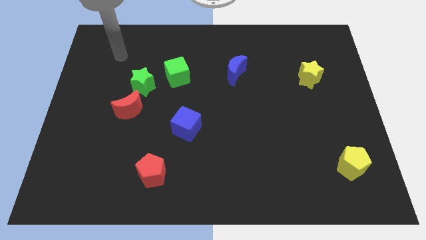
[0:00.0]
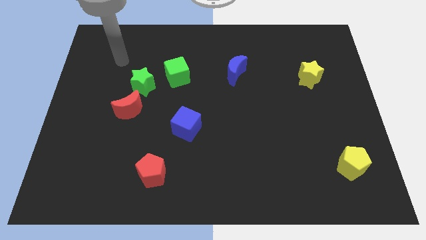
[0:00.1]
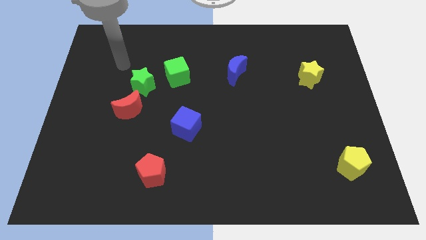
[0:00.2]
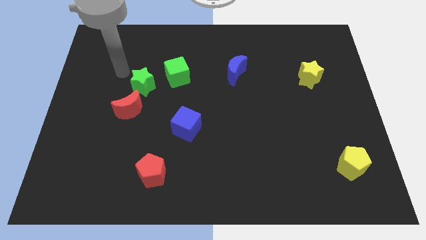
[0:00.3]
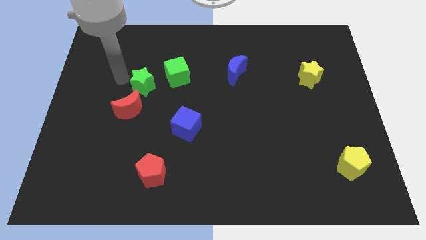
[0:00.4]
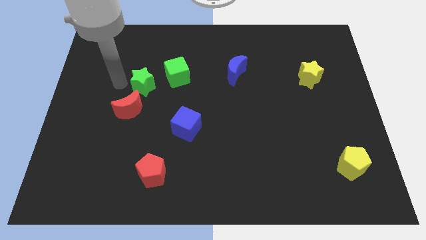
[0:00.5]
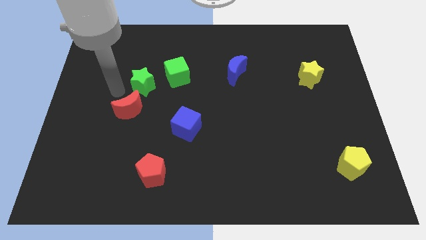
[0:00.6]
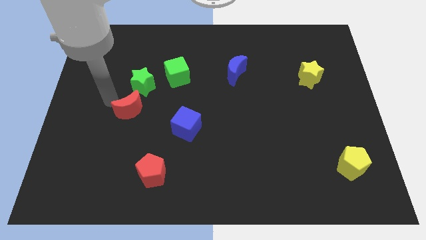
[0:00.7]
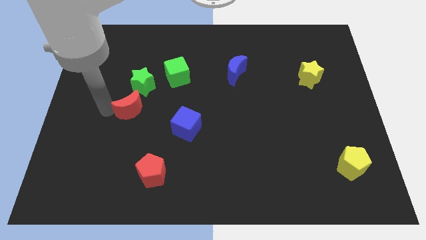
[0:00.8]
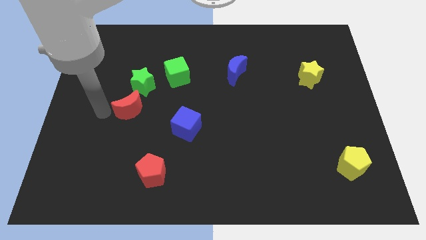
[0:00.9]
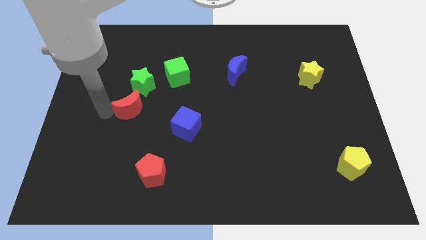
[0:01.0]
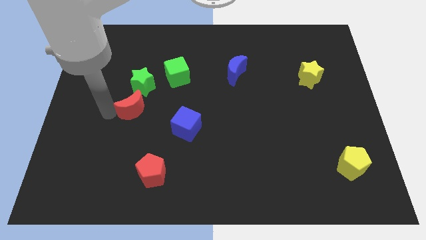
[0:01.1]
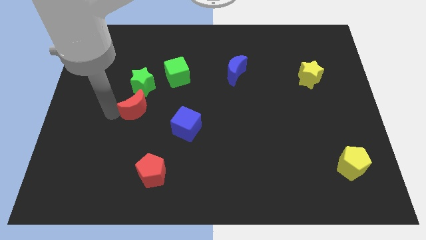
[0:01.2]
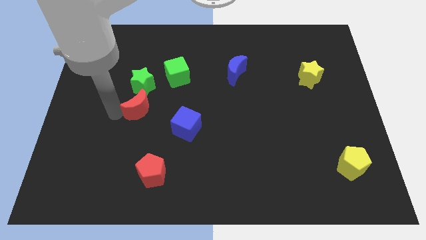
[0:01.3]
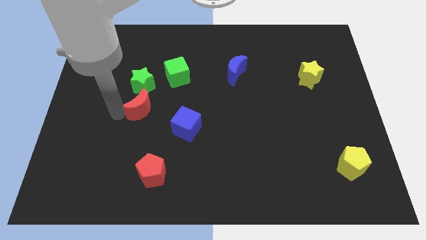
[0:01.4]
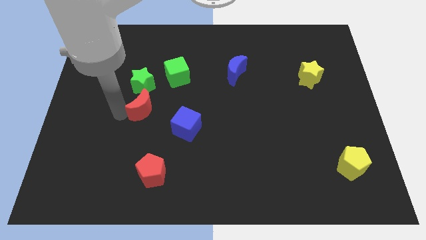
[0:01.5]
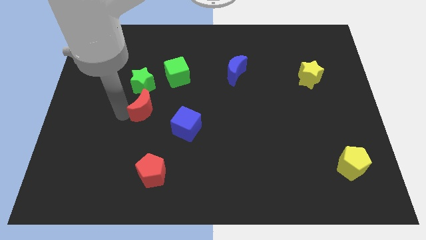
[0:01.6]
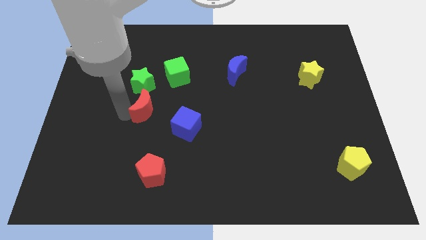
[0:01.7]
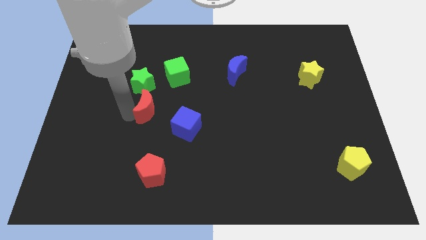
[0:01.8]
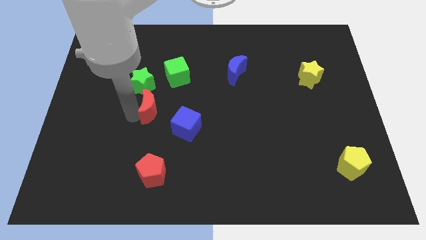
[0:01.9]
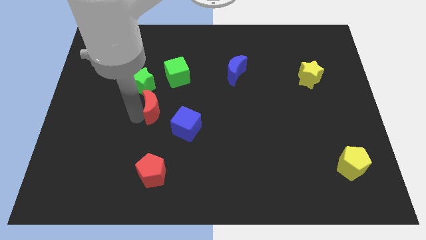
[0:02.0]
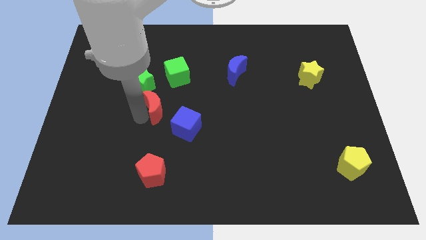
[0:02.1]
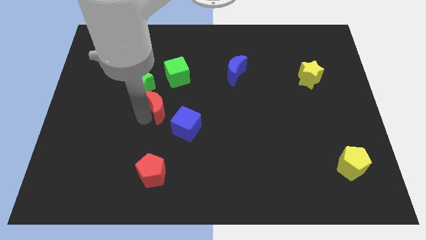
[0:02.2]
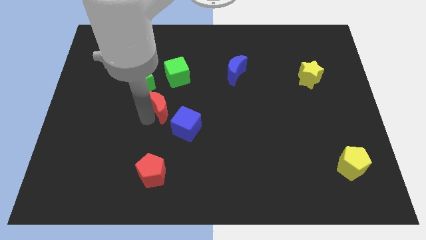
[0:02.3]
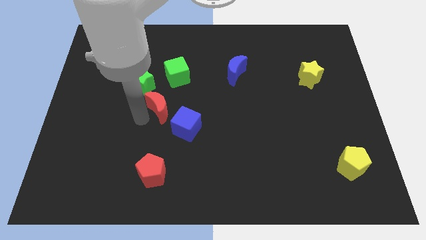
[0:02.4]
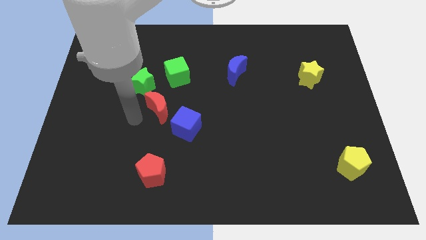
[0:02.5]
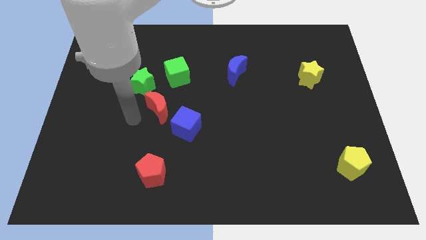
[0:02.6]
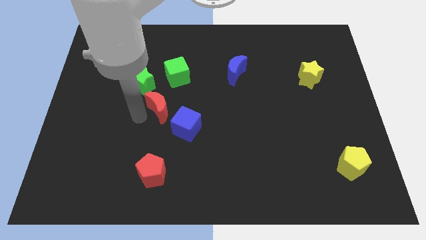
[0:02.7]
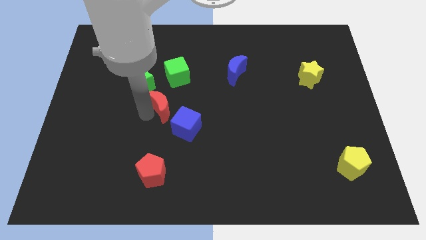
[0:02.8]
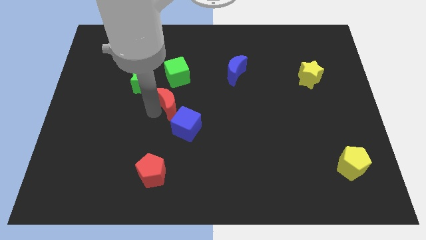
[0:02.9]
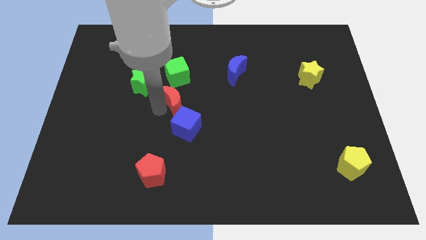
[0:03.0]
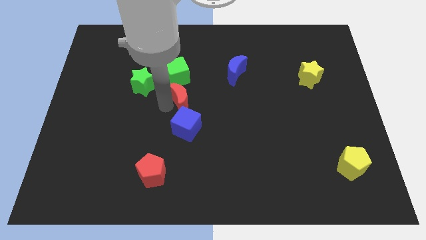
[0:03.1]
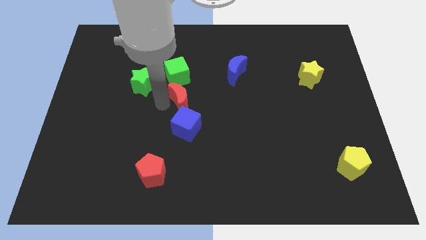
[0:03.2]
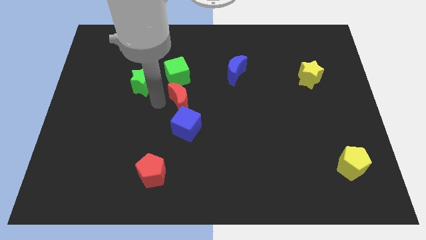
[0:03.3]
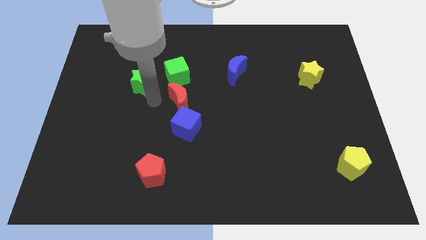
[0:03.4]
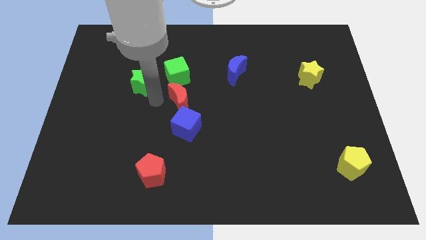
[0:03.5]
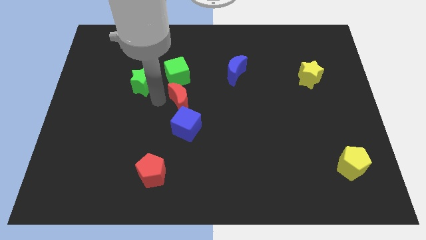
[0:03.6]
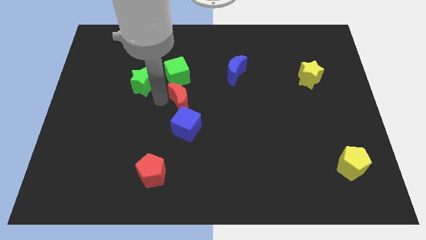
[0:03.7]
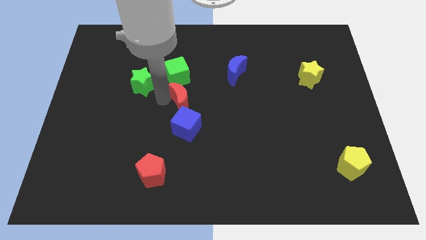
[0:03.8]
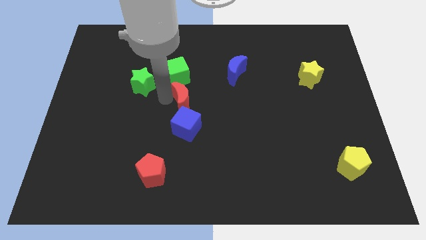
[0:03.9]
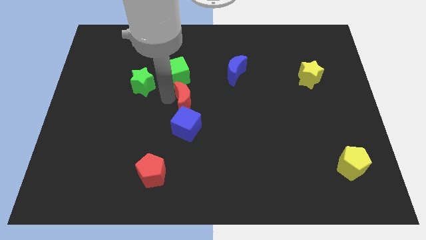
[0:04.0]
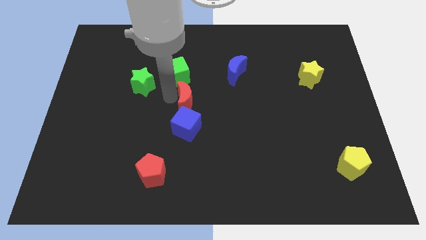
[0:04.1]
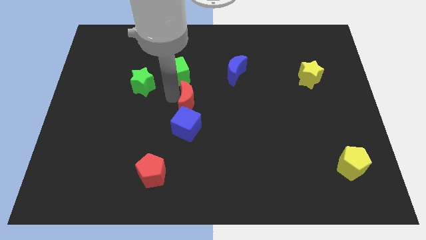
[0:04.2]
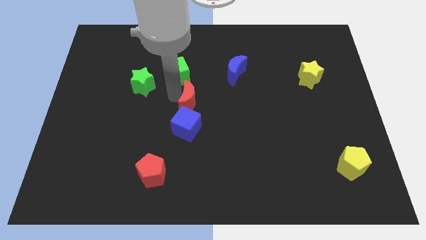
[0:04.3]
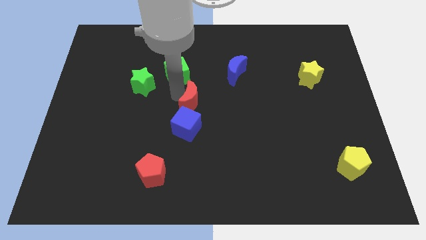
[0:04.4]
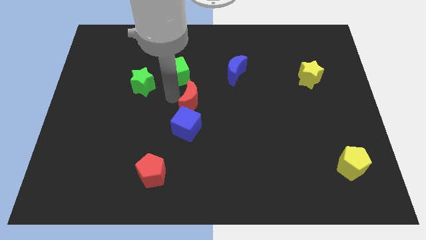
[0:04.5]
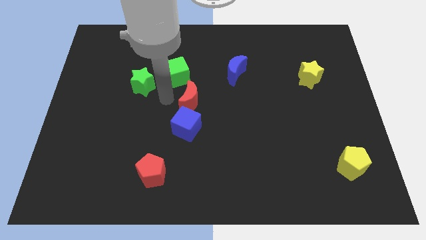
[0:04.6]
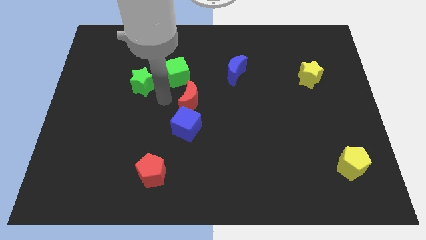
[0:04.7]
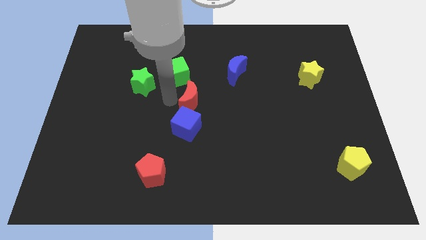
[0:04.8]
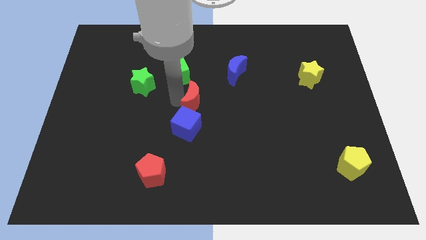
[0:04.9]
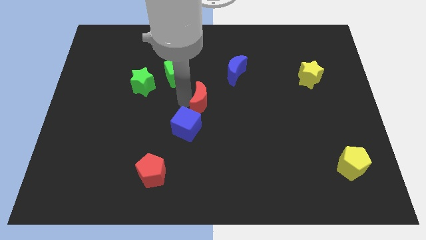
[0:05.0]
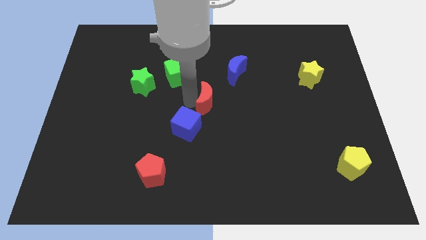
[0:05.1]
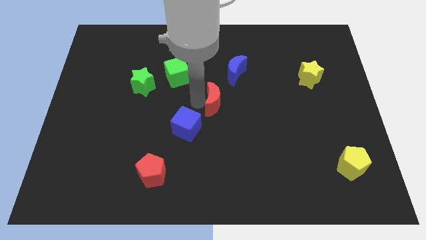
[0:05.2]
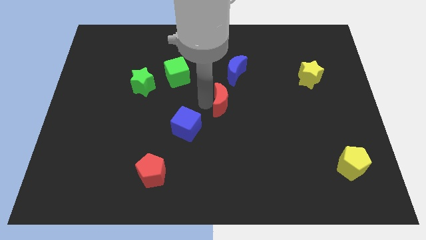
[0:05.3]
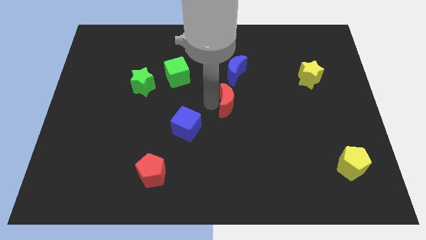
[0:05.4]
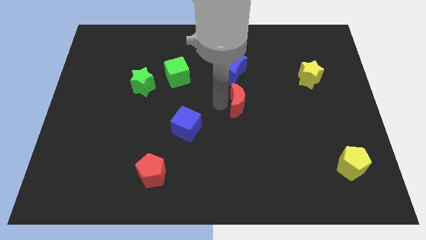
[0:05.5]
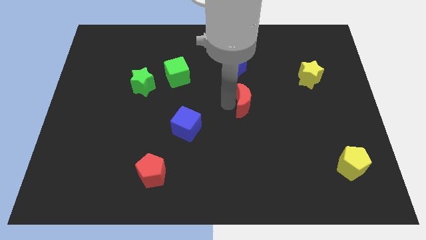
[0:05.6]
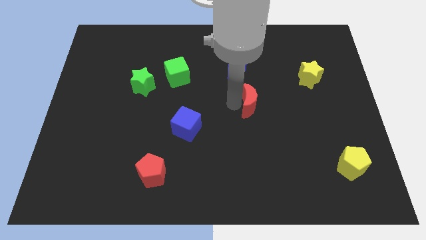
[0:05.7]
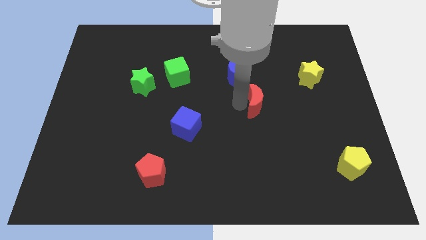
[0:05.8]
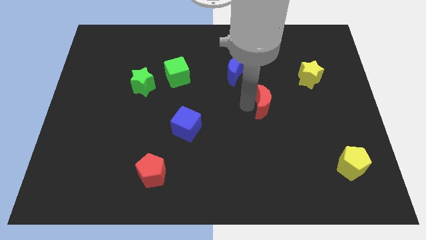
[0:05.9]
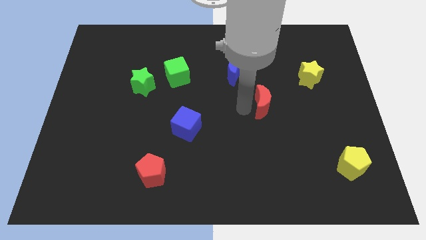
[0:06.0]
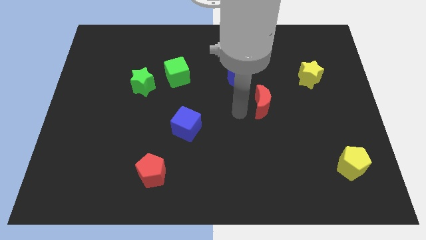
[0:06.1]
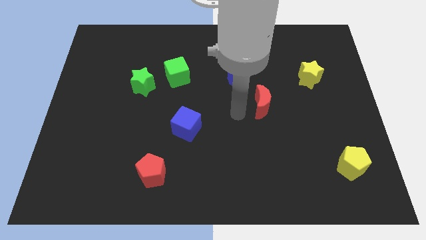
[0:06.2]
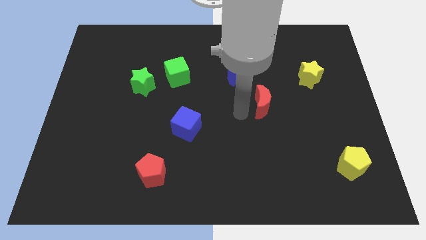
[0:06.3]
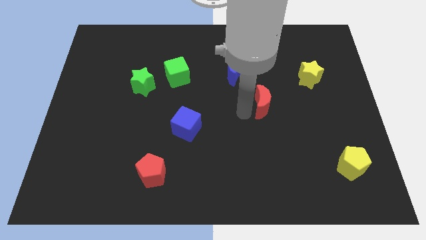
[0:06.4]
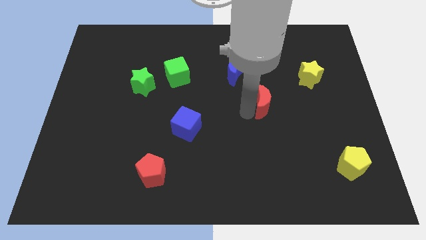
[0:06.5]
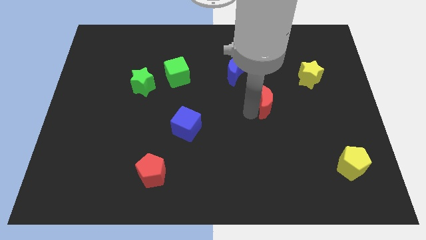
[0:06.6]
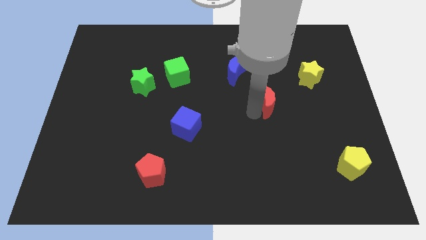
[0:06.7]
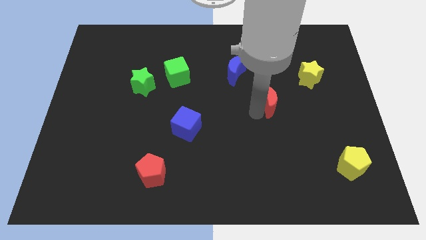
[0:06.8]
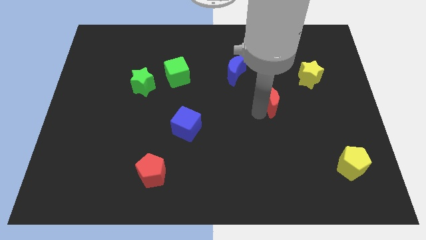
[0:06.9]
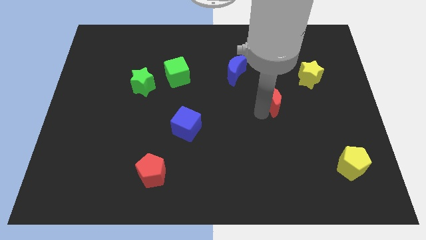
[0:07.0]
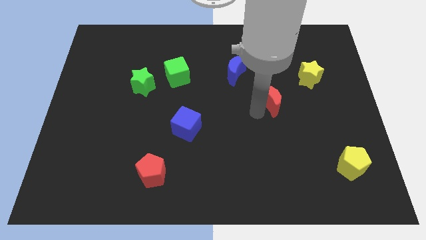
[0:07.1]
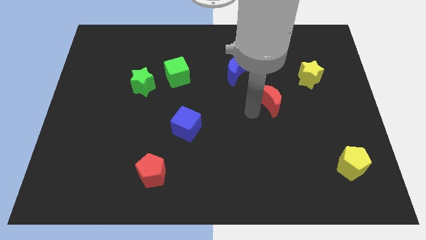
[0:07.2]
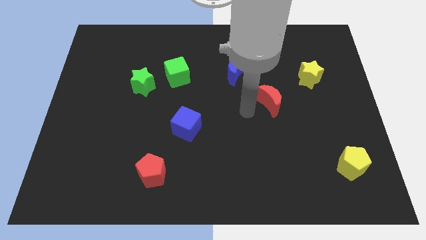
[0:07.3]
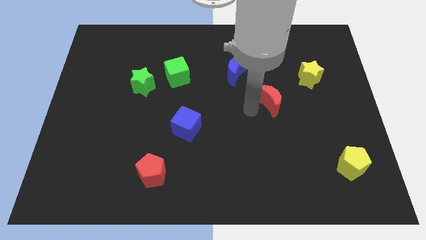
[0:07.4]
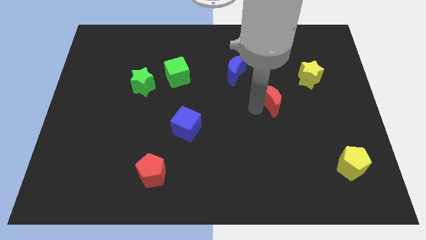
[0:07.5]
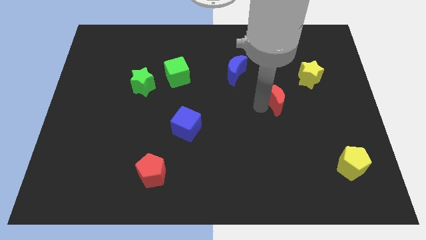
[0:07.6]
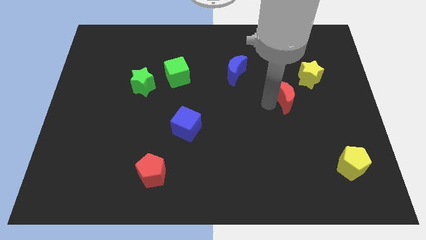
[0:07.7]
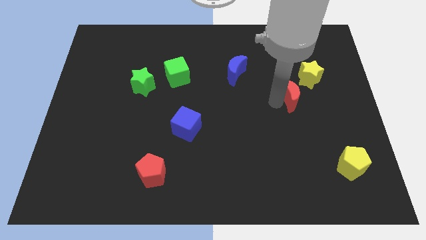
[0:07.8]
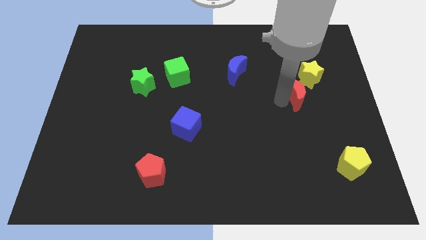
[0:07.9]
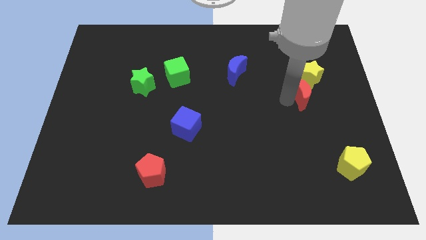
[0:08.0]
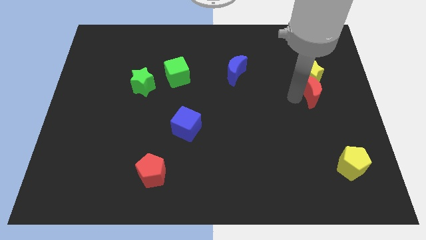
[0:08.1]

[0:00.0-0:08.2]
slide the red moon to the bottom right of the yellow star
